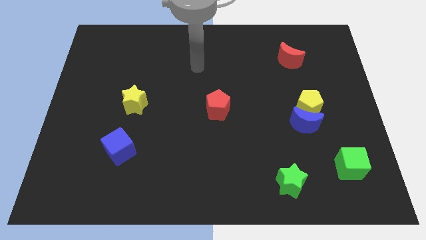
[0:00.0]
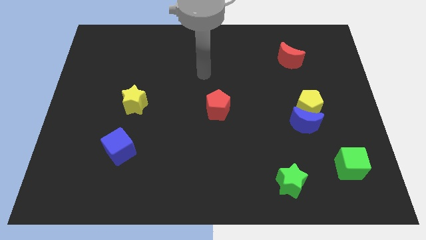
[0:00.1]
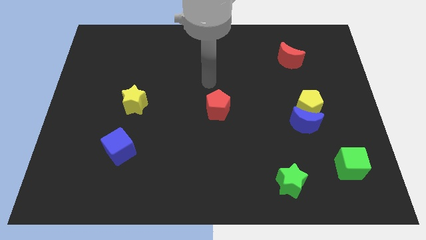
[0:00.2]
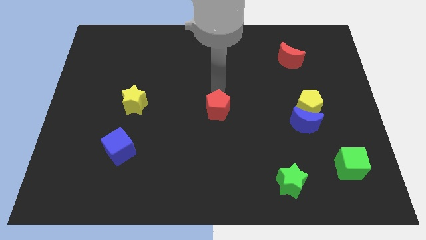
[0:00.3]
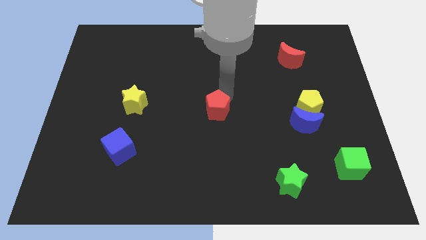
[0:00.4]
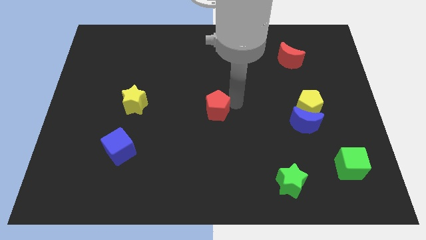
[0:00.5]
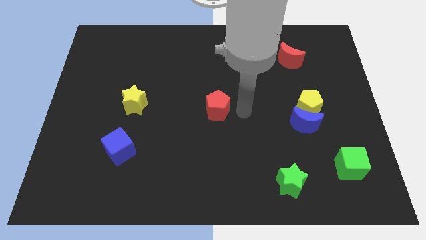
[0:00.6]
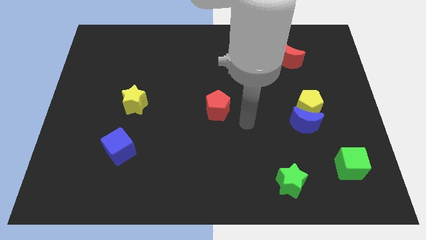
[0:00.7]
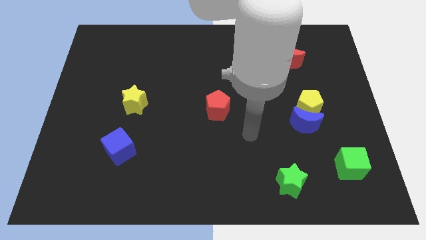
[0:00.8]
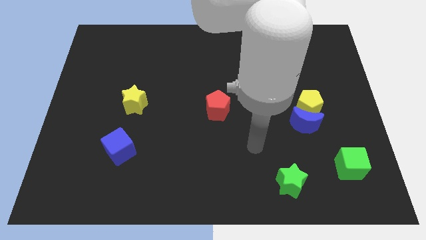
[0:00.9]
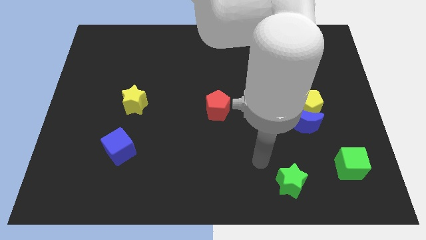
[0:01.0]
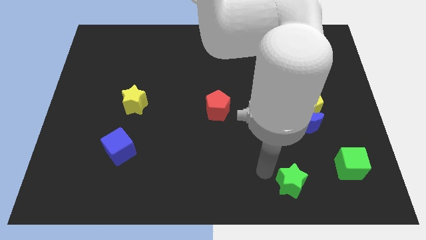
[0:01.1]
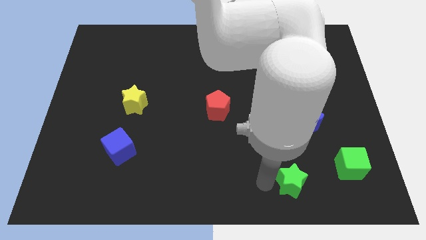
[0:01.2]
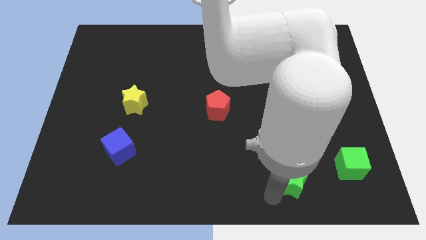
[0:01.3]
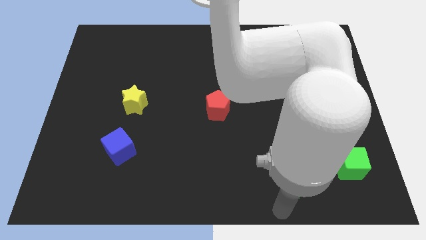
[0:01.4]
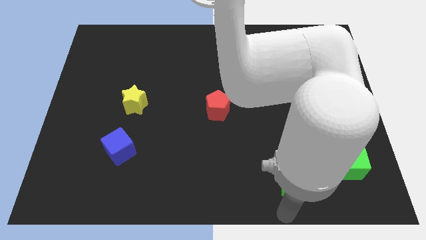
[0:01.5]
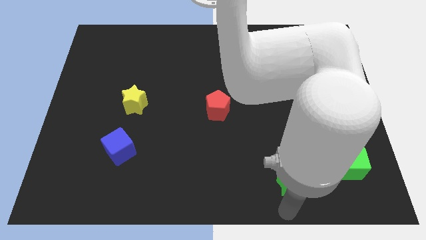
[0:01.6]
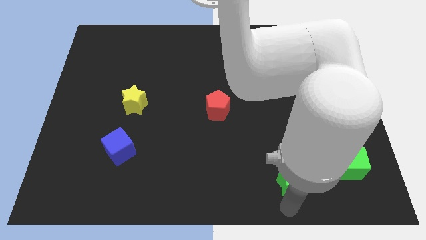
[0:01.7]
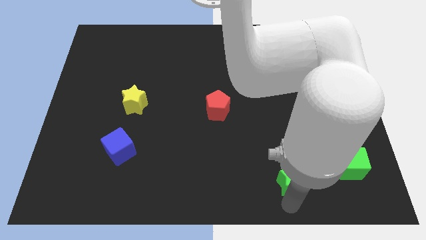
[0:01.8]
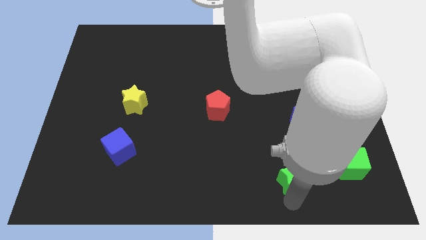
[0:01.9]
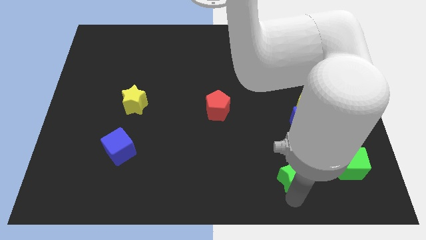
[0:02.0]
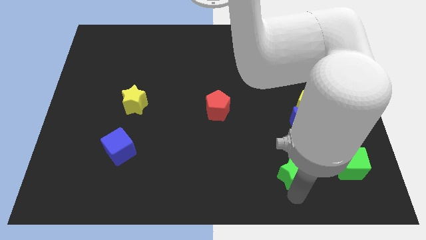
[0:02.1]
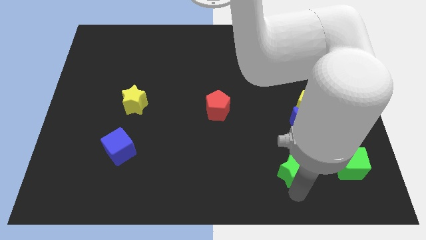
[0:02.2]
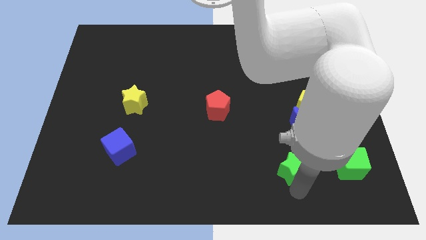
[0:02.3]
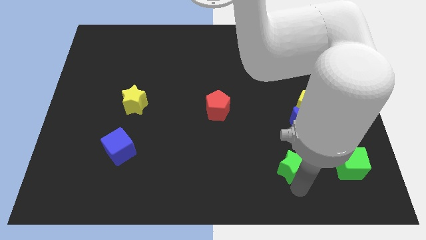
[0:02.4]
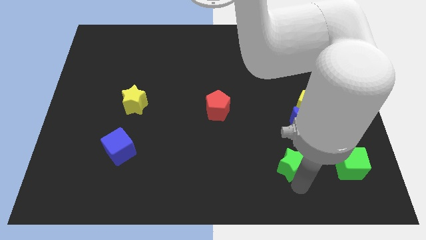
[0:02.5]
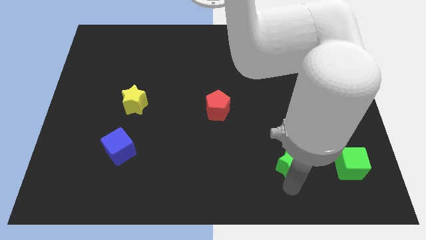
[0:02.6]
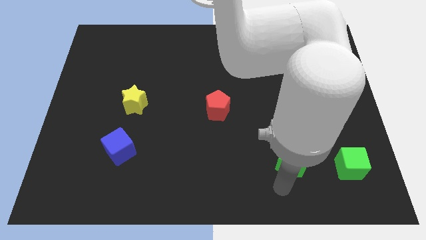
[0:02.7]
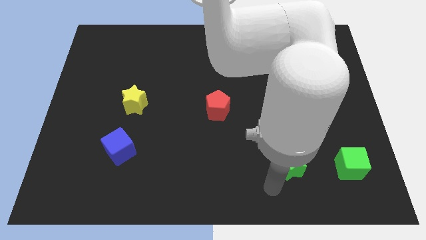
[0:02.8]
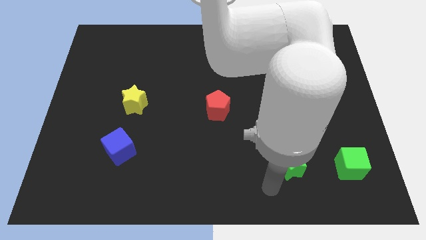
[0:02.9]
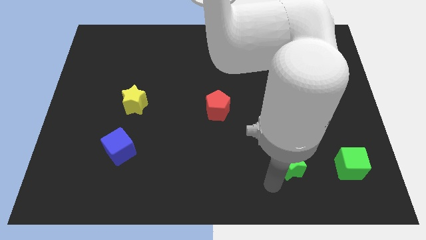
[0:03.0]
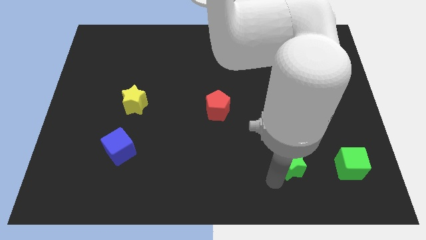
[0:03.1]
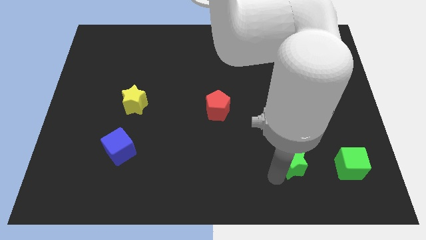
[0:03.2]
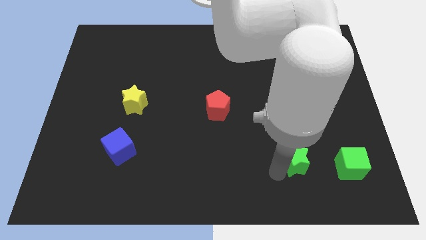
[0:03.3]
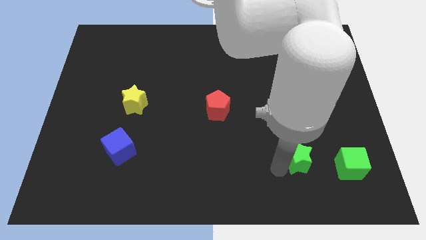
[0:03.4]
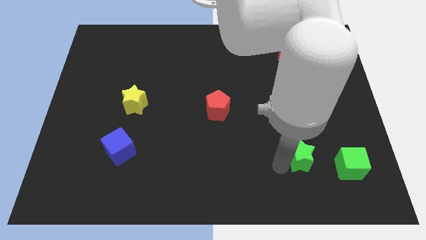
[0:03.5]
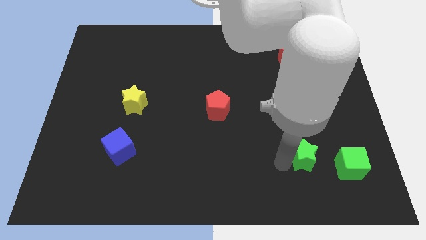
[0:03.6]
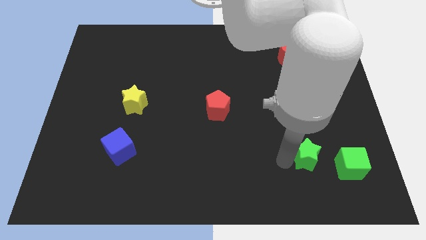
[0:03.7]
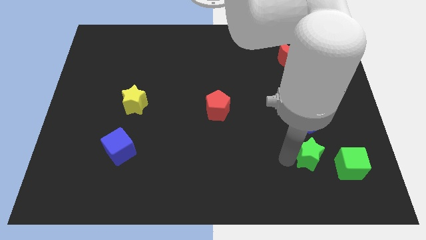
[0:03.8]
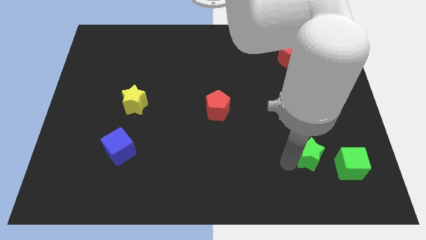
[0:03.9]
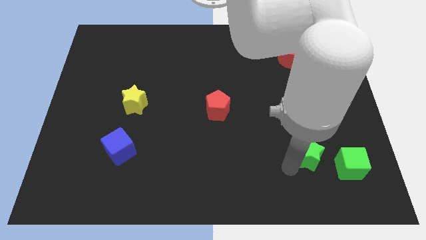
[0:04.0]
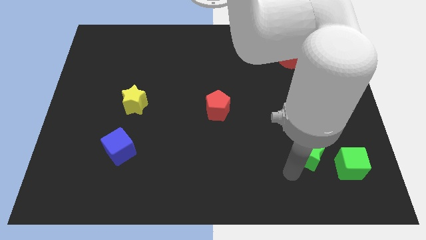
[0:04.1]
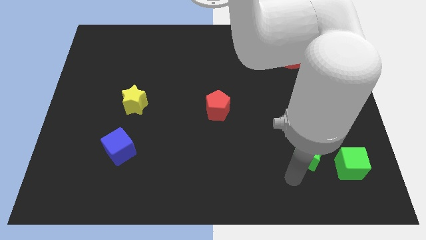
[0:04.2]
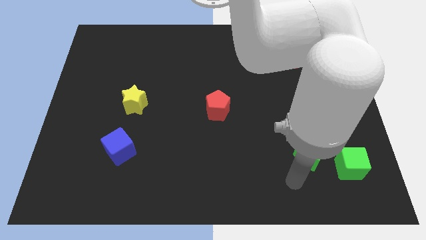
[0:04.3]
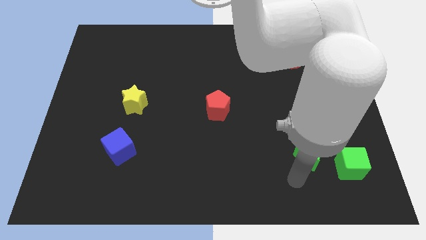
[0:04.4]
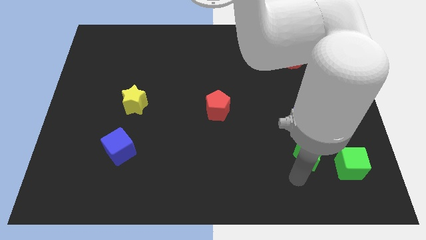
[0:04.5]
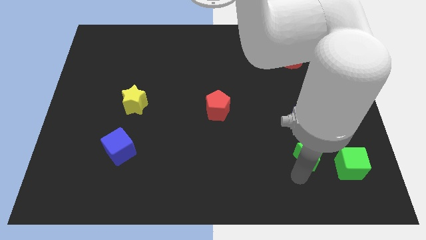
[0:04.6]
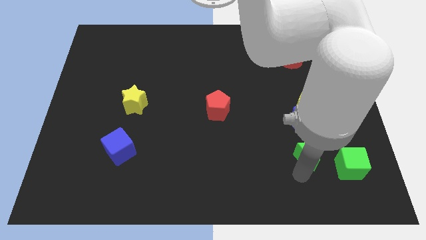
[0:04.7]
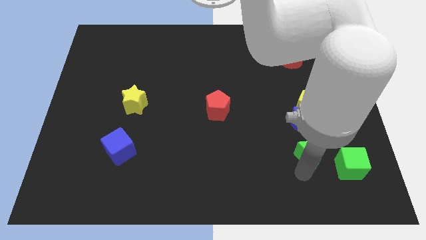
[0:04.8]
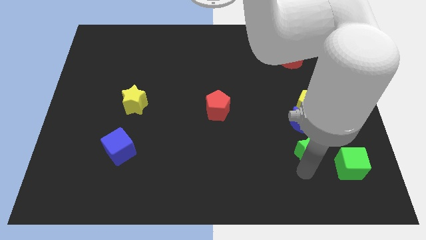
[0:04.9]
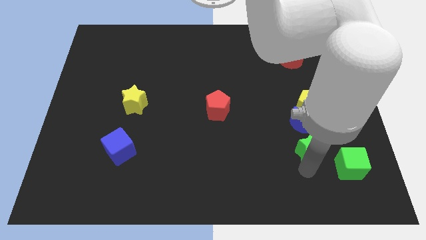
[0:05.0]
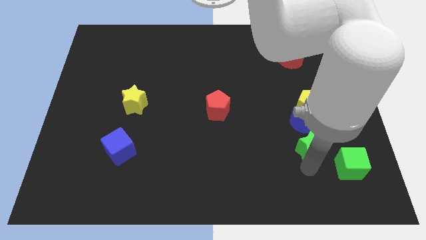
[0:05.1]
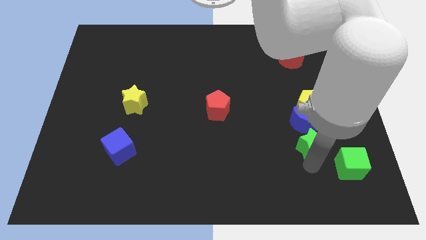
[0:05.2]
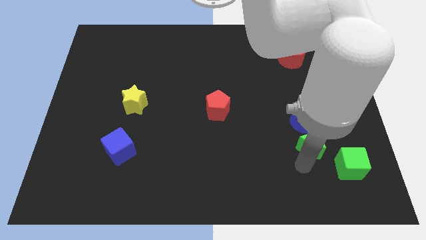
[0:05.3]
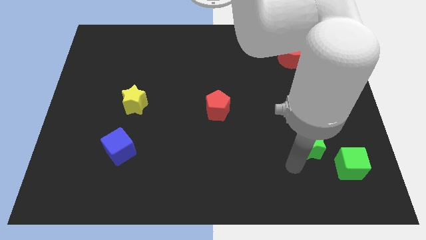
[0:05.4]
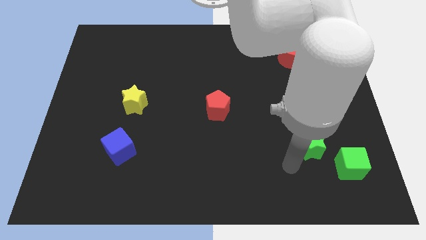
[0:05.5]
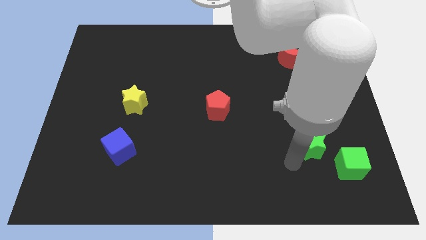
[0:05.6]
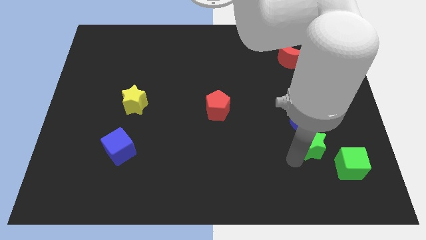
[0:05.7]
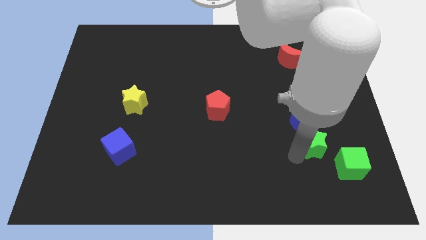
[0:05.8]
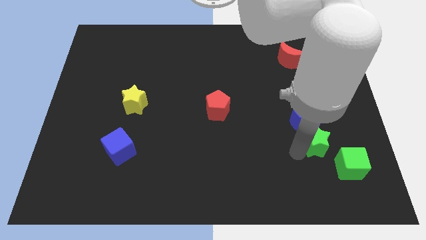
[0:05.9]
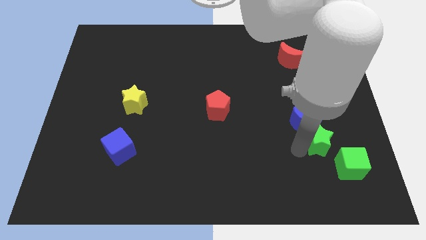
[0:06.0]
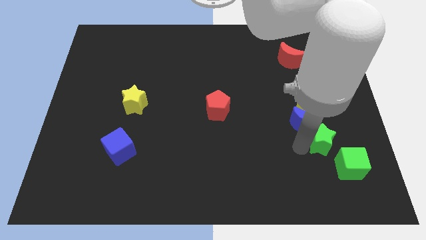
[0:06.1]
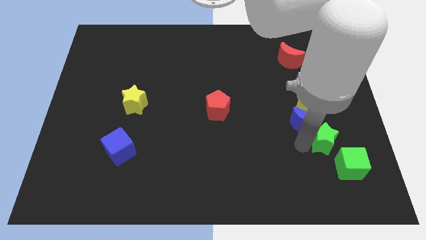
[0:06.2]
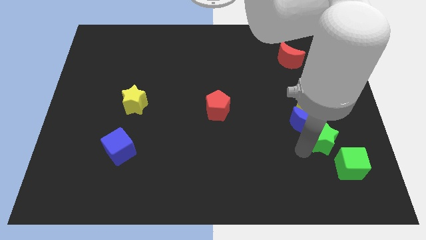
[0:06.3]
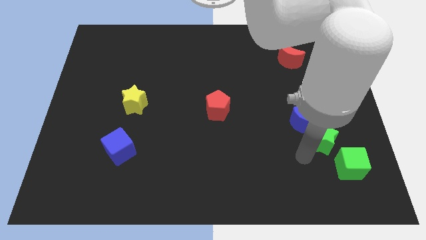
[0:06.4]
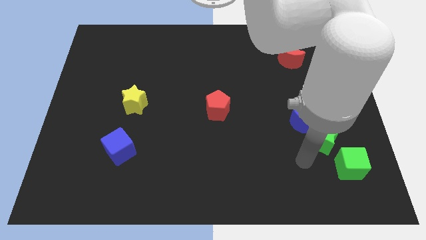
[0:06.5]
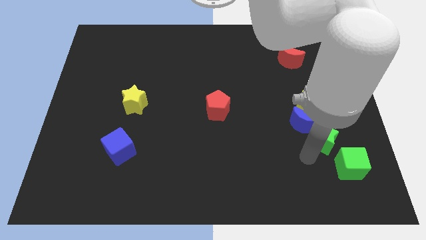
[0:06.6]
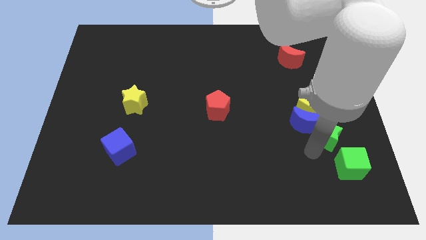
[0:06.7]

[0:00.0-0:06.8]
slide the green star to the bottom right side of the yellow pentagon
